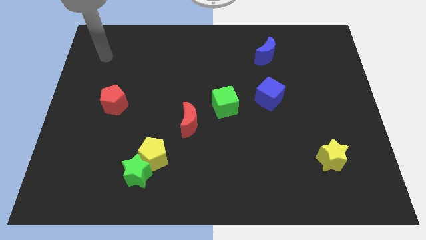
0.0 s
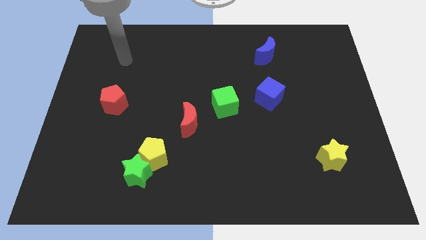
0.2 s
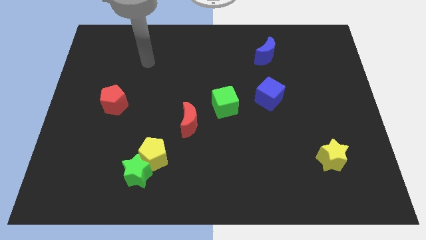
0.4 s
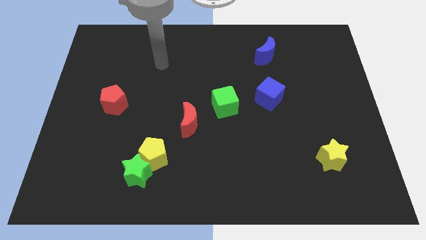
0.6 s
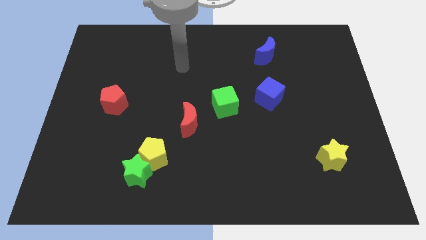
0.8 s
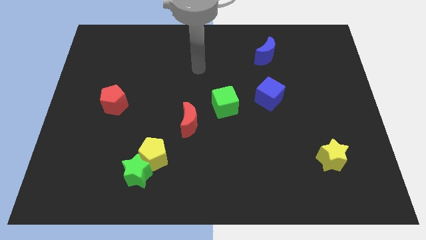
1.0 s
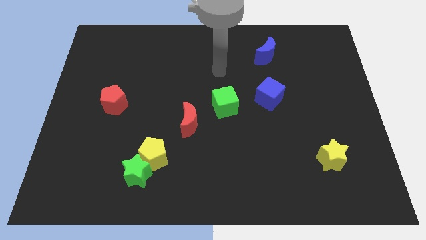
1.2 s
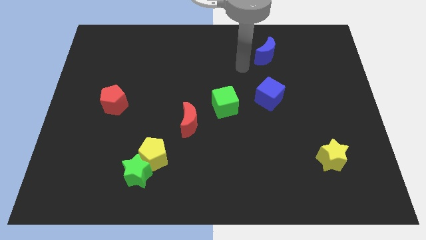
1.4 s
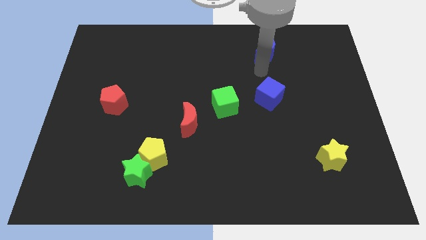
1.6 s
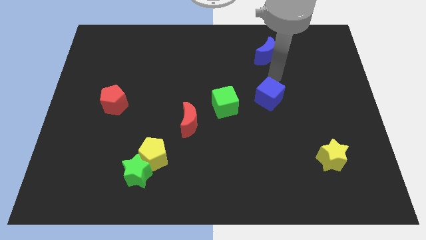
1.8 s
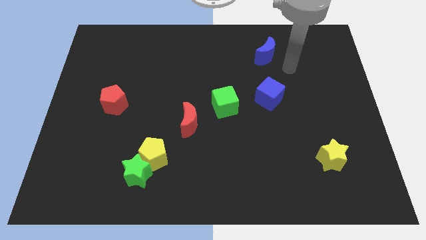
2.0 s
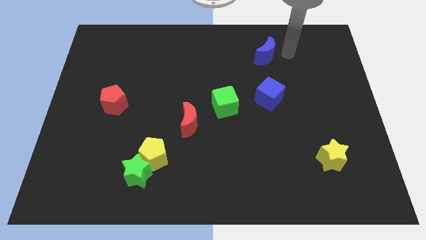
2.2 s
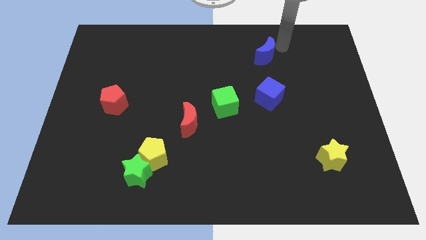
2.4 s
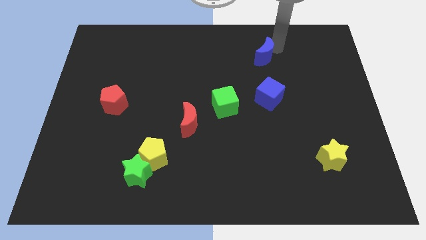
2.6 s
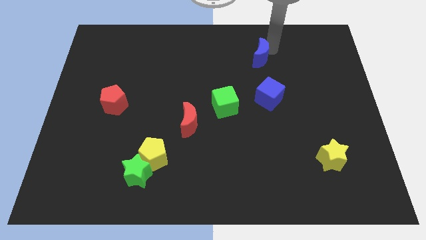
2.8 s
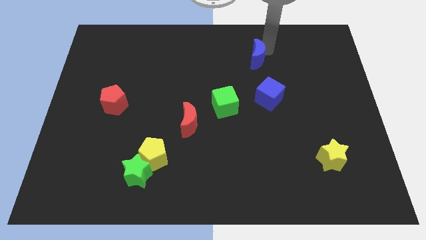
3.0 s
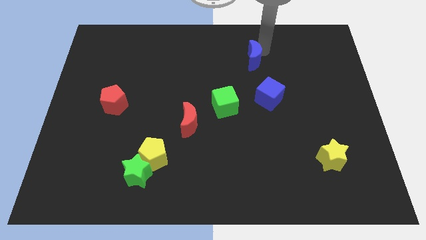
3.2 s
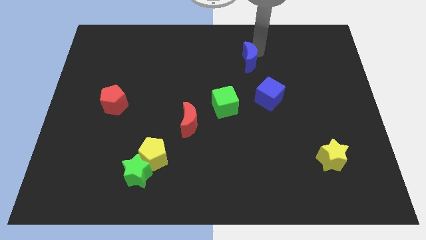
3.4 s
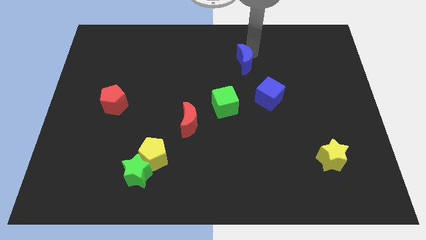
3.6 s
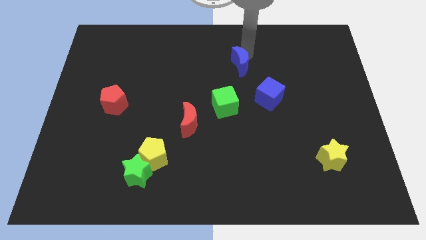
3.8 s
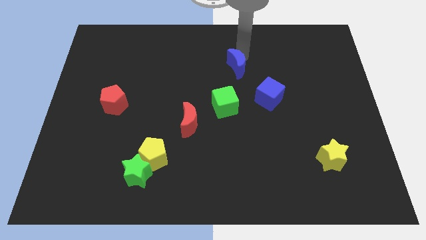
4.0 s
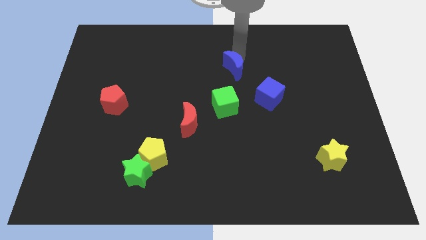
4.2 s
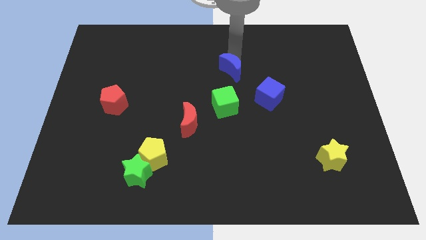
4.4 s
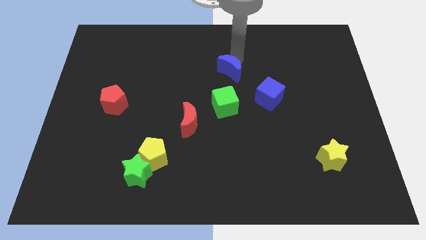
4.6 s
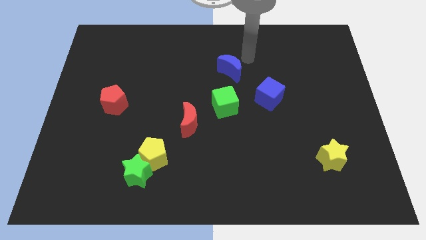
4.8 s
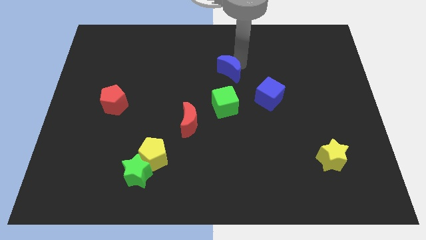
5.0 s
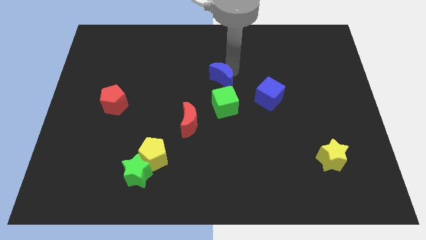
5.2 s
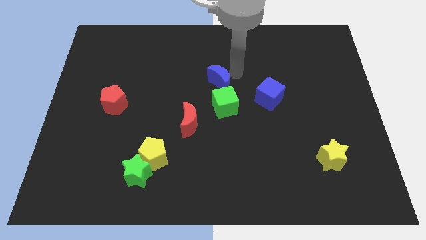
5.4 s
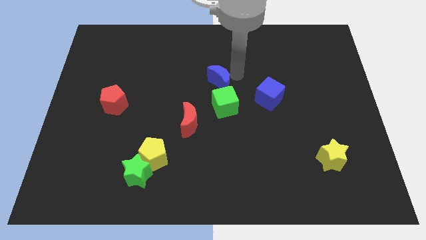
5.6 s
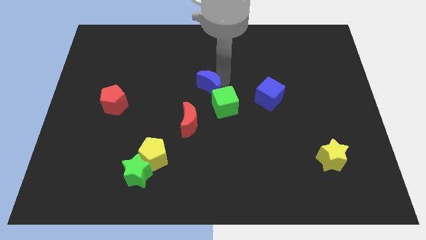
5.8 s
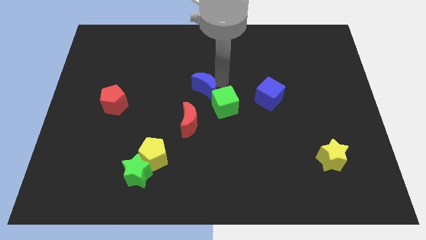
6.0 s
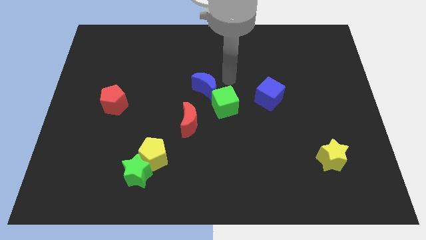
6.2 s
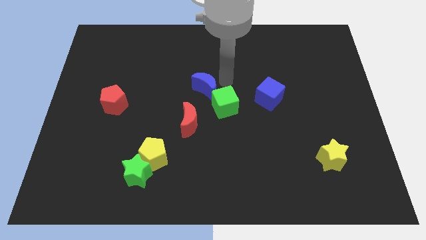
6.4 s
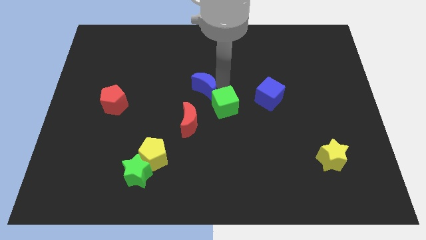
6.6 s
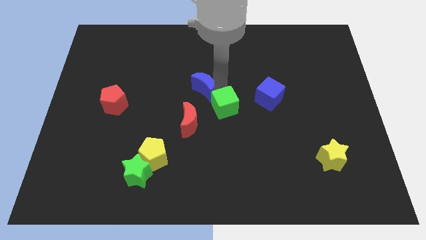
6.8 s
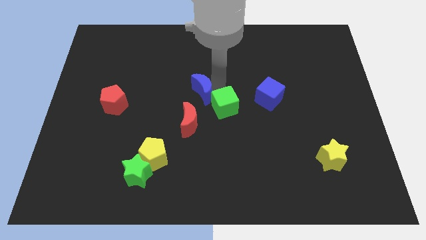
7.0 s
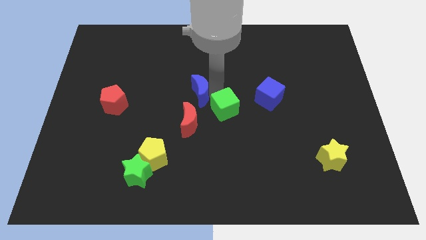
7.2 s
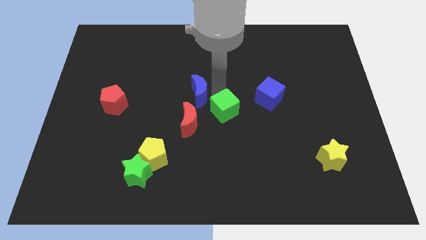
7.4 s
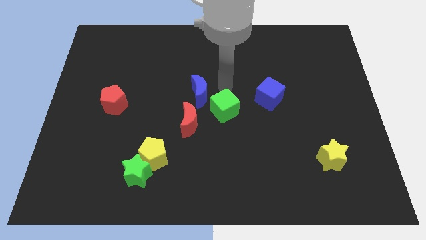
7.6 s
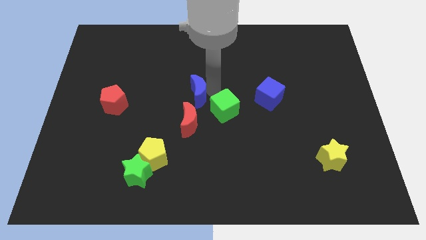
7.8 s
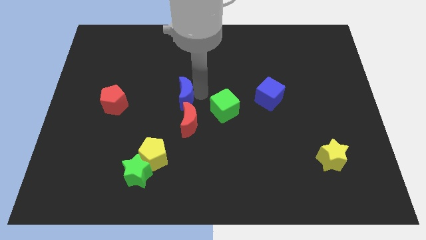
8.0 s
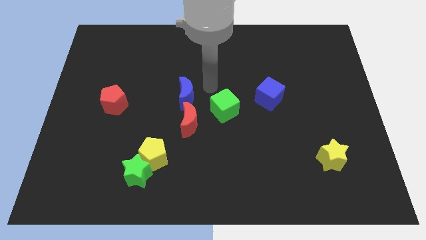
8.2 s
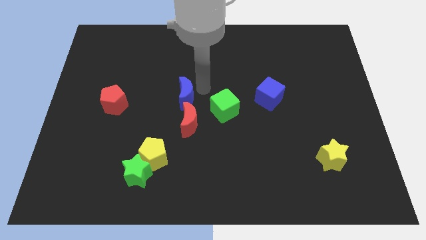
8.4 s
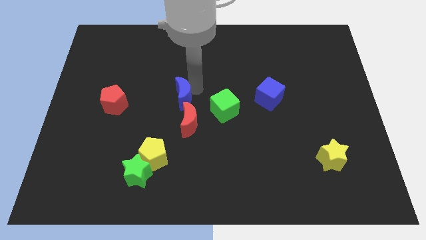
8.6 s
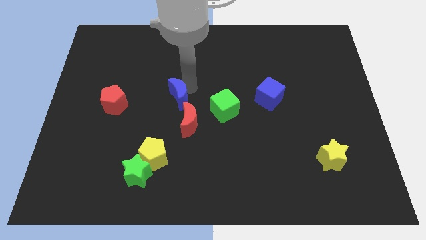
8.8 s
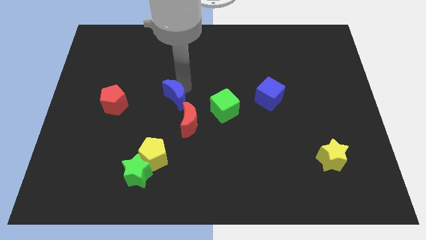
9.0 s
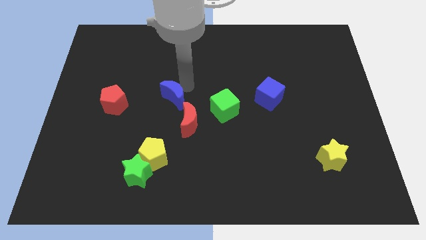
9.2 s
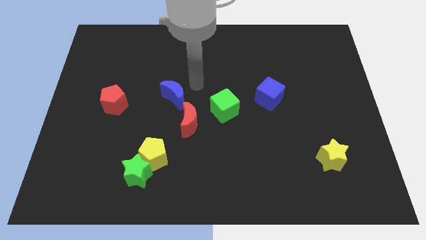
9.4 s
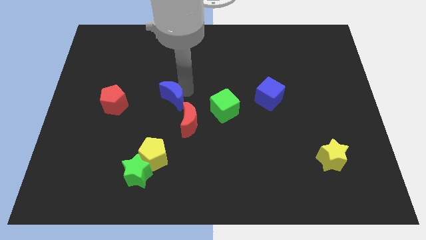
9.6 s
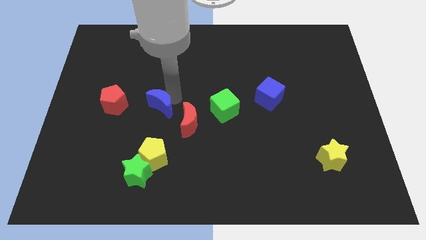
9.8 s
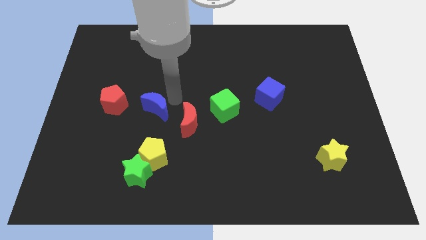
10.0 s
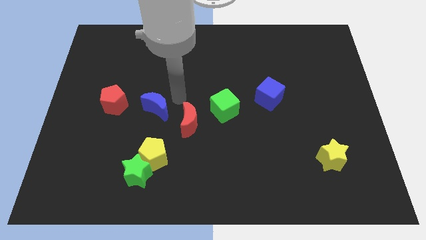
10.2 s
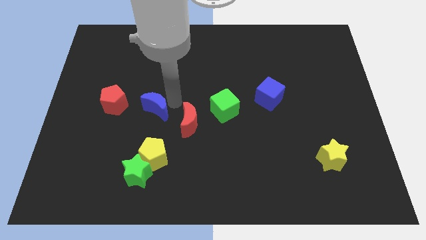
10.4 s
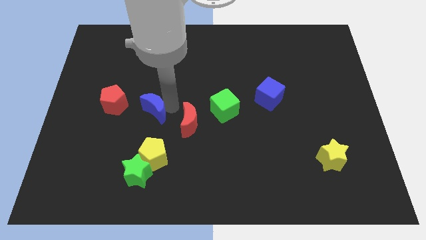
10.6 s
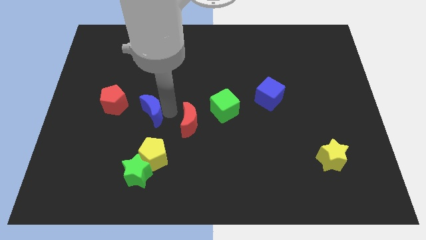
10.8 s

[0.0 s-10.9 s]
slide the blue moon diagonally down and to the right of the red pentagon

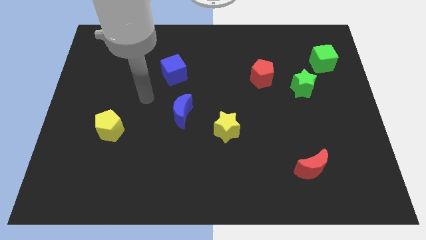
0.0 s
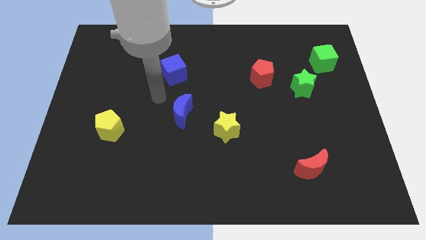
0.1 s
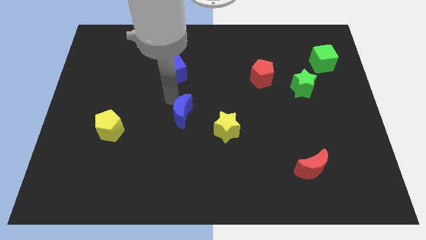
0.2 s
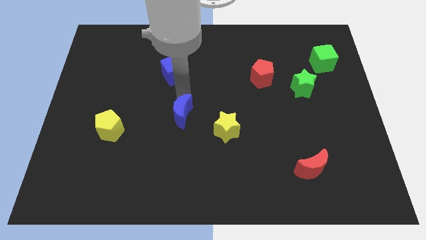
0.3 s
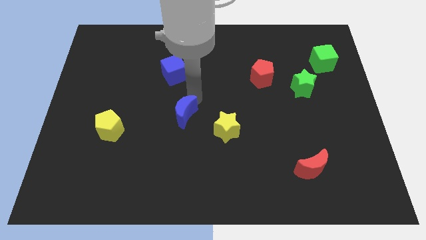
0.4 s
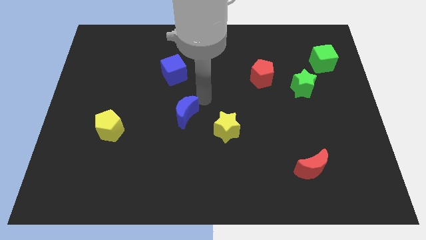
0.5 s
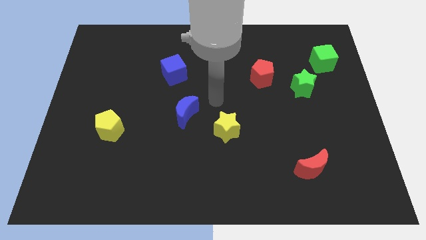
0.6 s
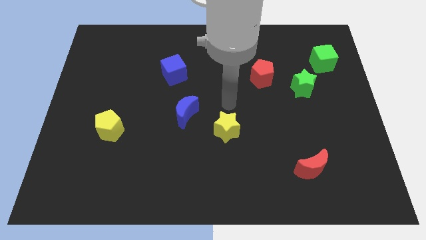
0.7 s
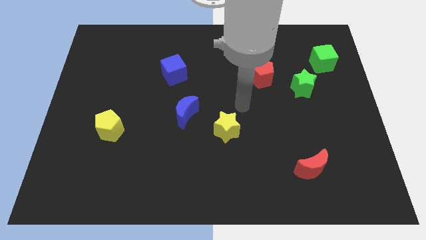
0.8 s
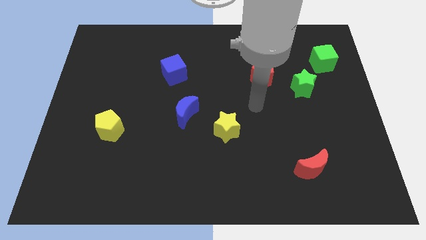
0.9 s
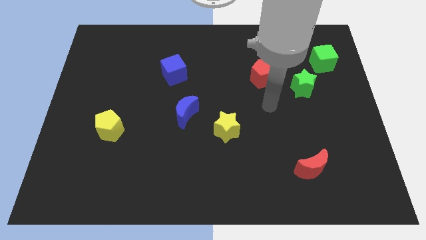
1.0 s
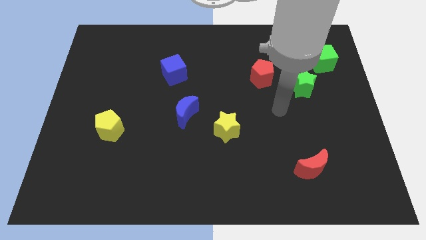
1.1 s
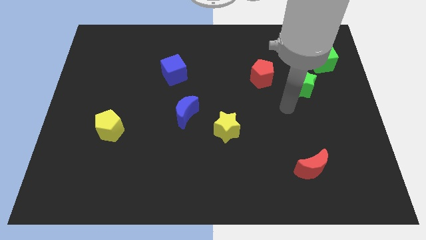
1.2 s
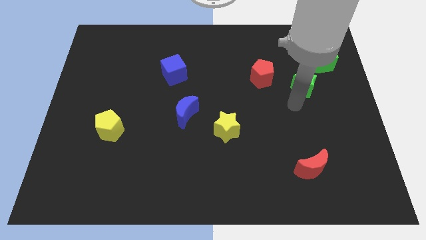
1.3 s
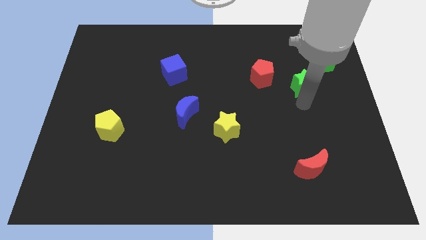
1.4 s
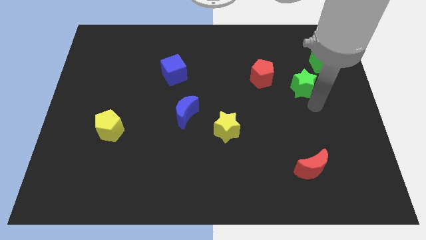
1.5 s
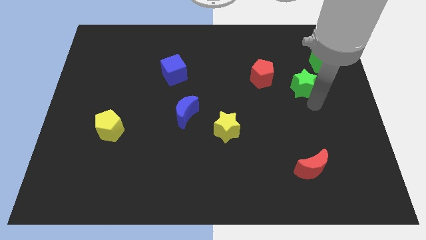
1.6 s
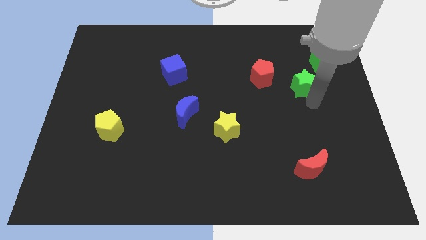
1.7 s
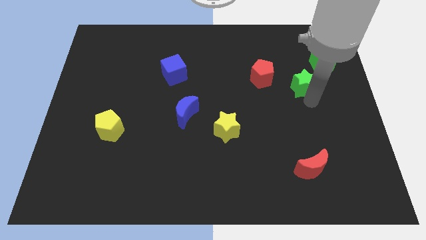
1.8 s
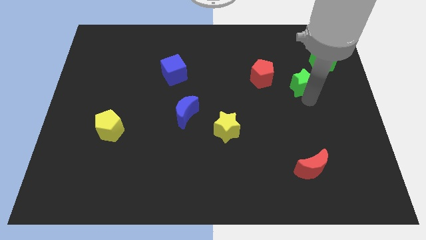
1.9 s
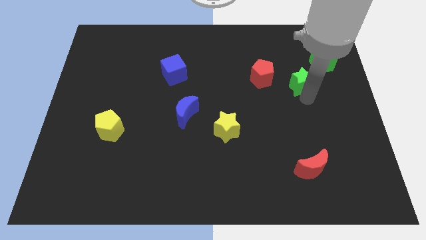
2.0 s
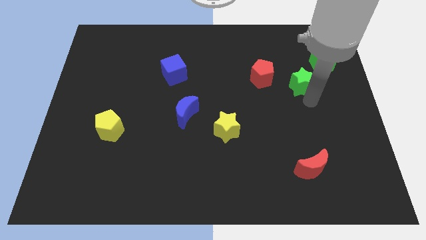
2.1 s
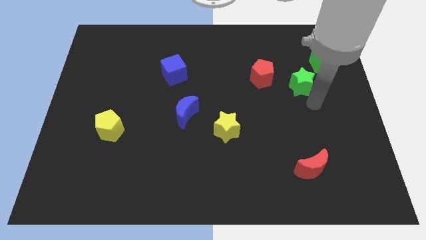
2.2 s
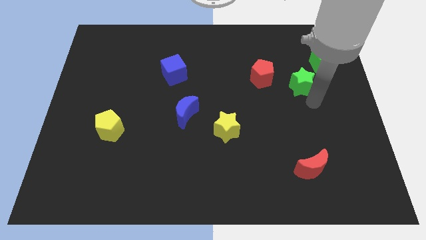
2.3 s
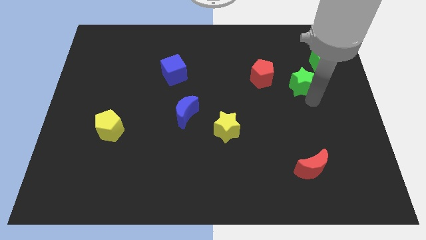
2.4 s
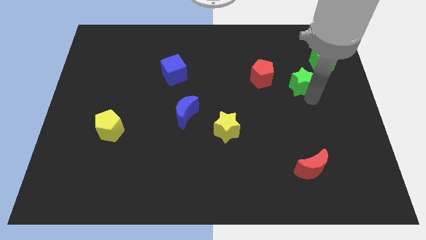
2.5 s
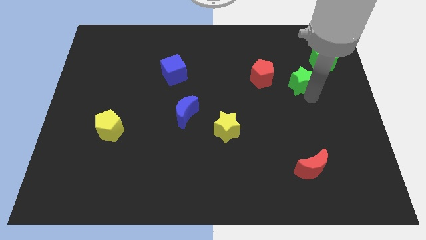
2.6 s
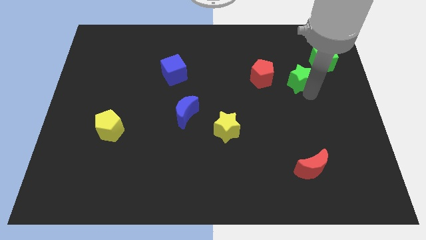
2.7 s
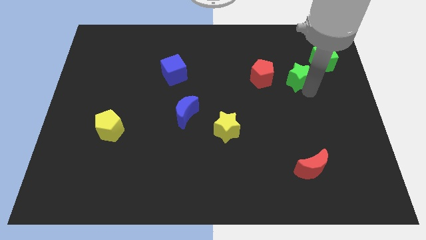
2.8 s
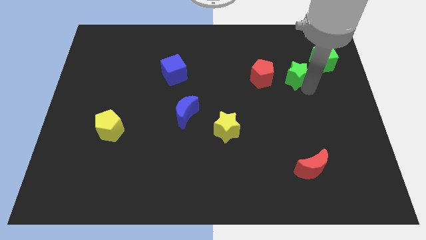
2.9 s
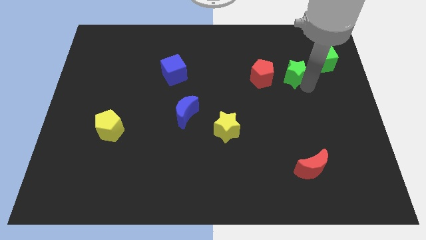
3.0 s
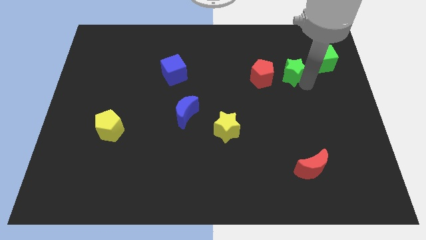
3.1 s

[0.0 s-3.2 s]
slide the green star to the left side of the green cube
